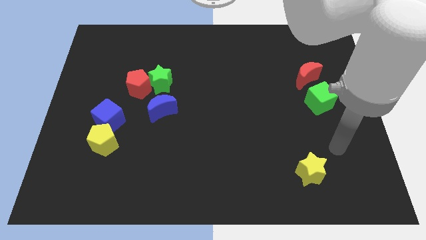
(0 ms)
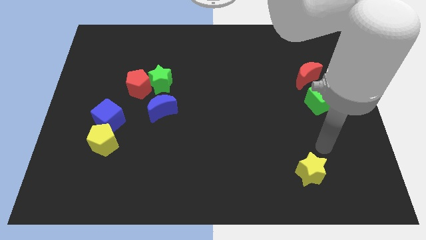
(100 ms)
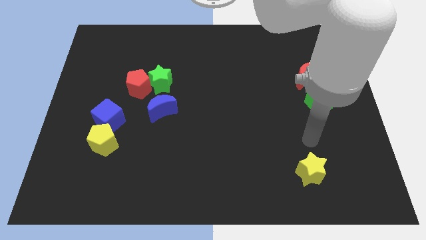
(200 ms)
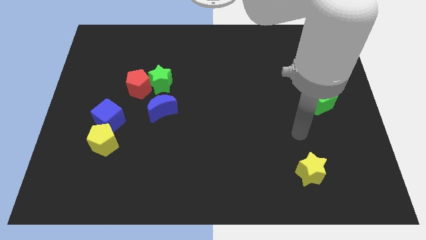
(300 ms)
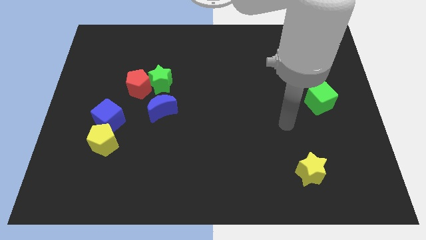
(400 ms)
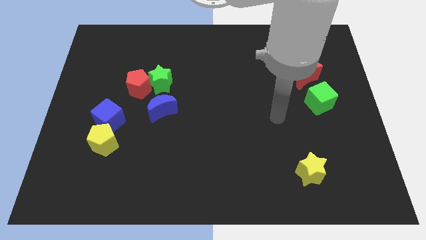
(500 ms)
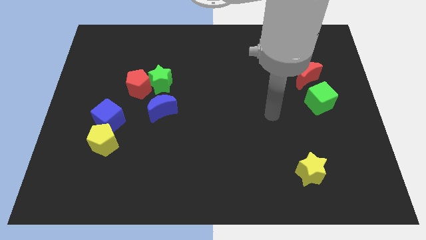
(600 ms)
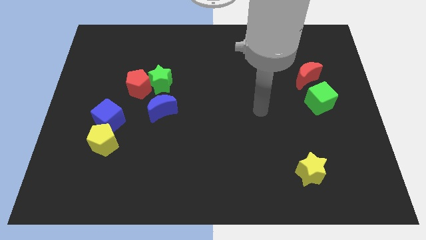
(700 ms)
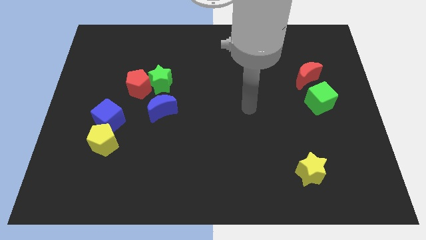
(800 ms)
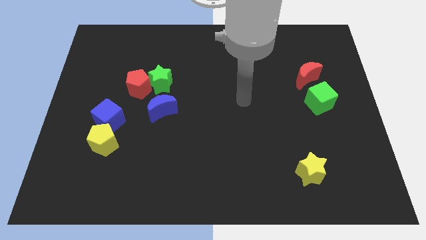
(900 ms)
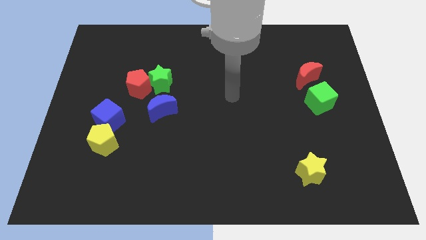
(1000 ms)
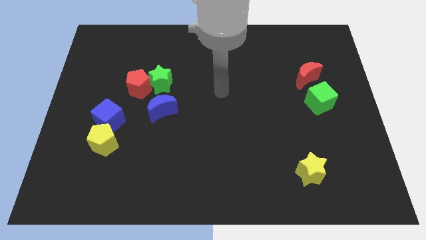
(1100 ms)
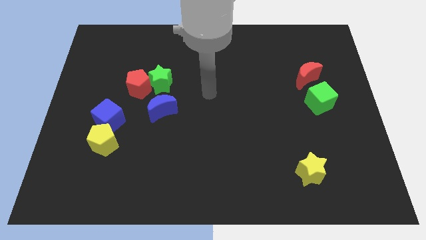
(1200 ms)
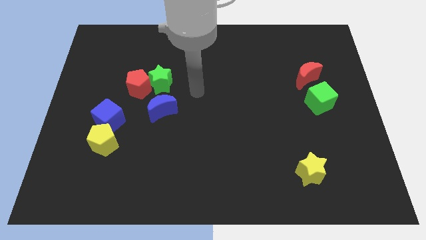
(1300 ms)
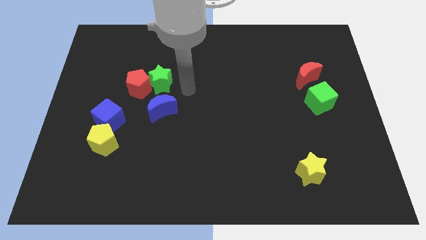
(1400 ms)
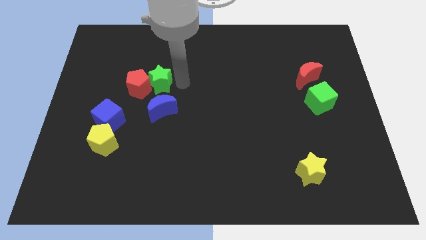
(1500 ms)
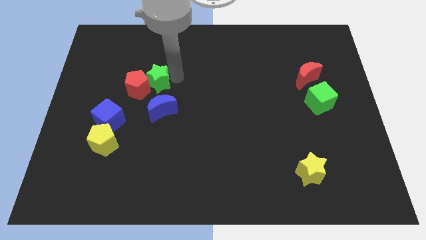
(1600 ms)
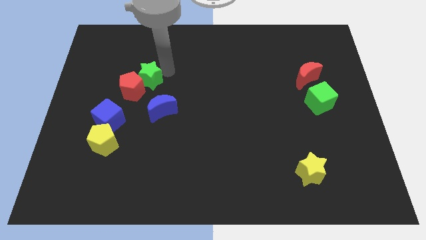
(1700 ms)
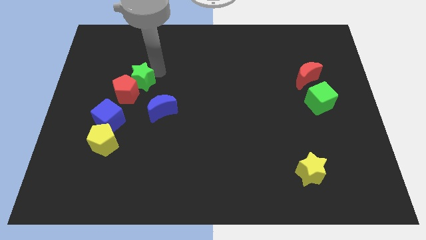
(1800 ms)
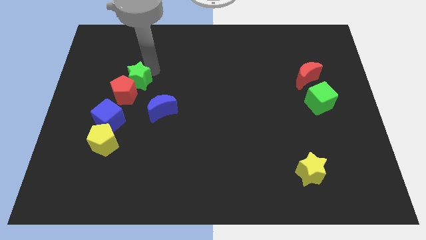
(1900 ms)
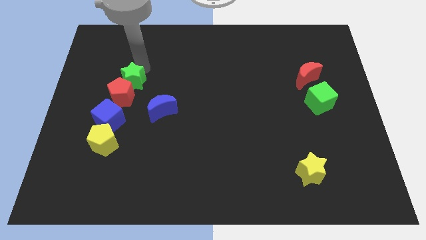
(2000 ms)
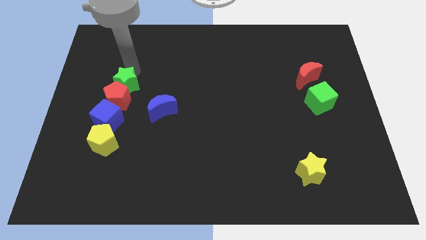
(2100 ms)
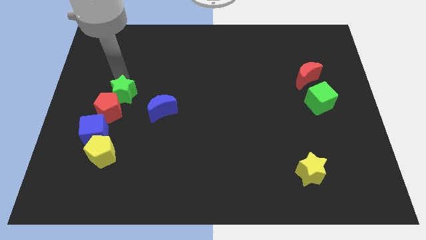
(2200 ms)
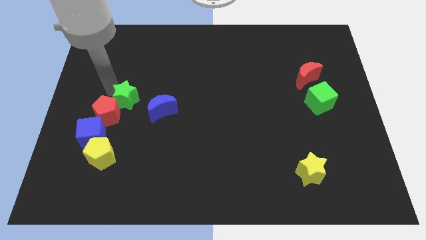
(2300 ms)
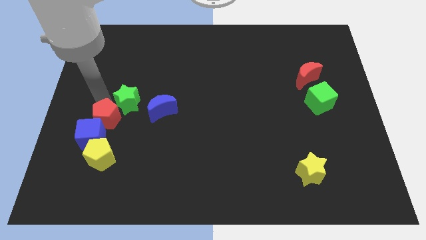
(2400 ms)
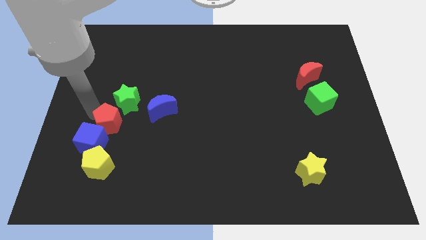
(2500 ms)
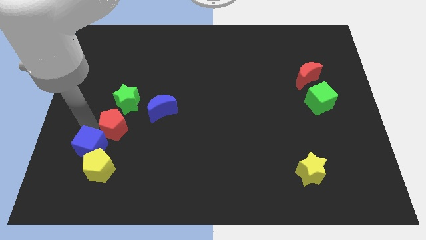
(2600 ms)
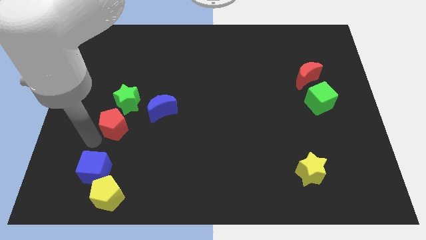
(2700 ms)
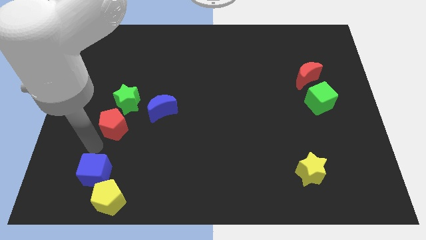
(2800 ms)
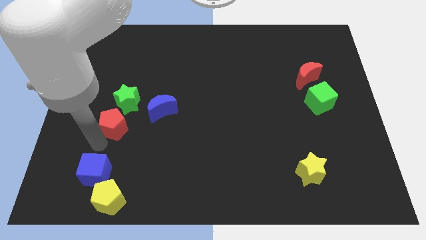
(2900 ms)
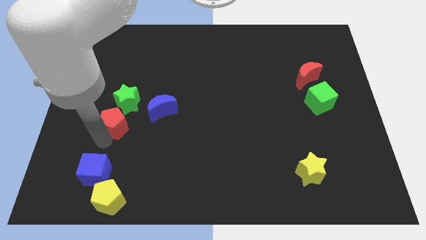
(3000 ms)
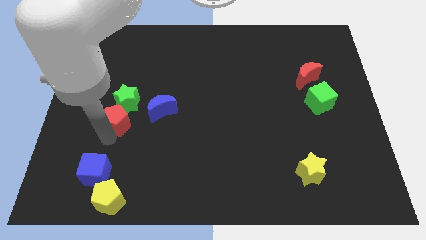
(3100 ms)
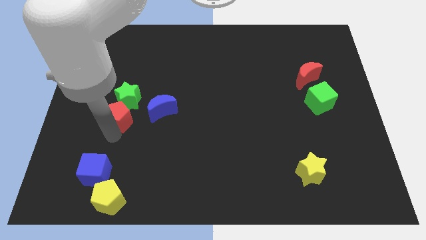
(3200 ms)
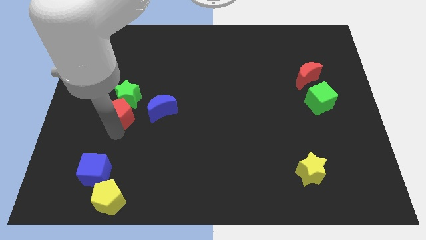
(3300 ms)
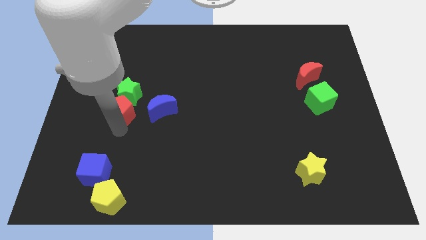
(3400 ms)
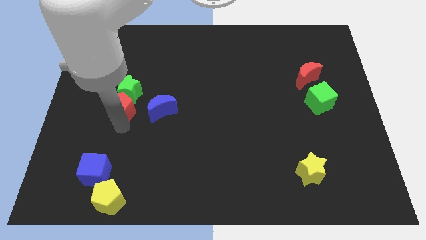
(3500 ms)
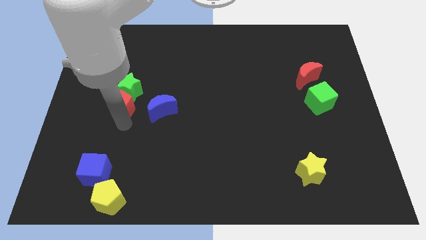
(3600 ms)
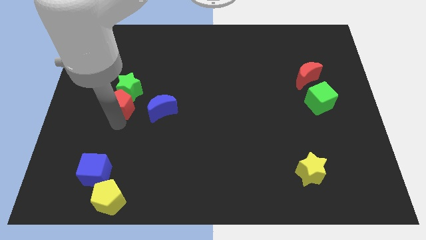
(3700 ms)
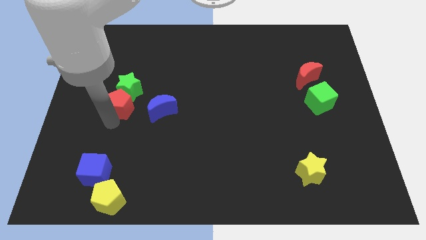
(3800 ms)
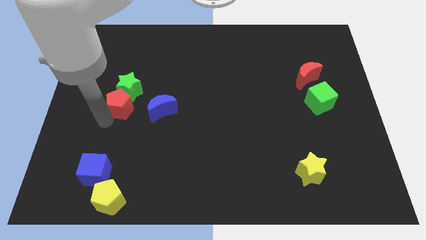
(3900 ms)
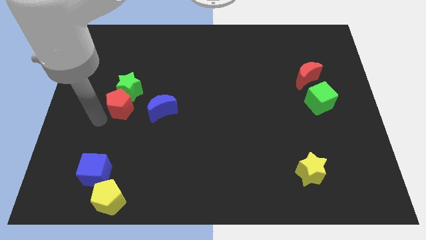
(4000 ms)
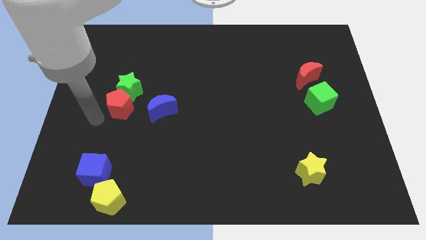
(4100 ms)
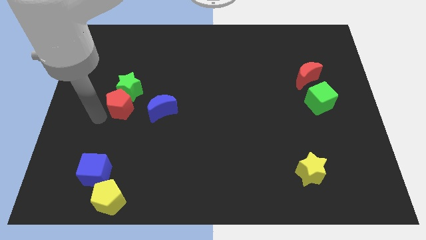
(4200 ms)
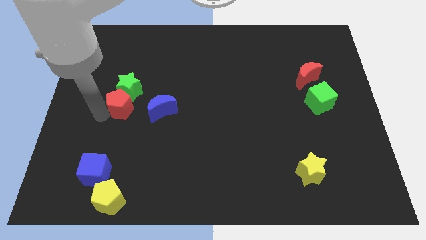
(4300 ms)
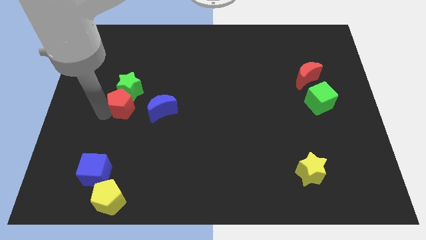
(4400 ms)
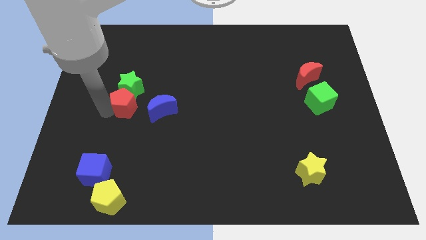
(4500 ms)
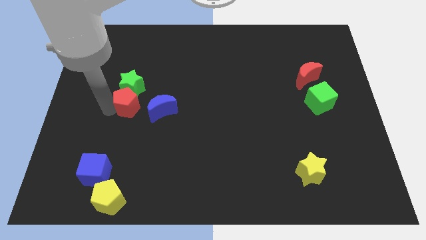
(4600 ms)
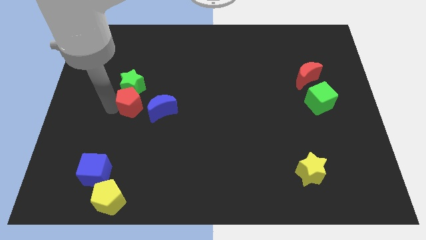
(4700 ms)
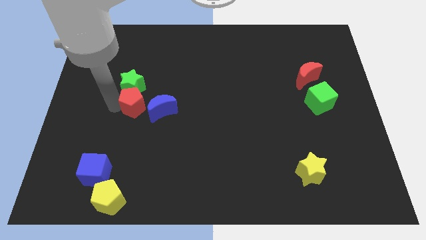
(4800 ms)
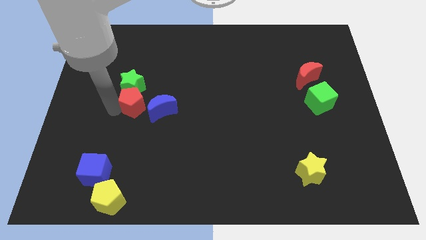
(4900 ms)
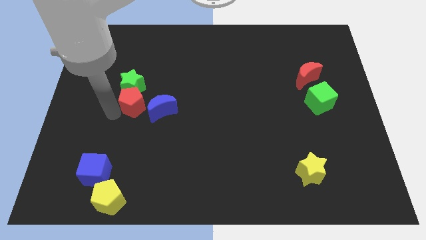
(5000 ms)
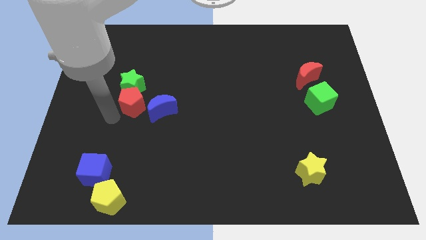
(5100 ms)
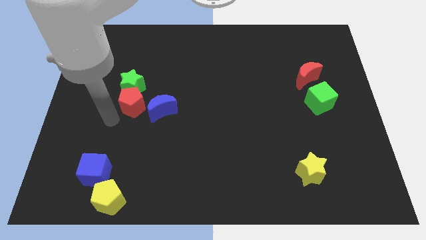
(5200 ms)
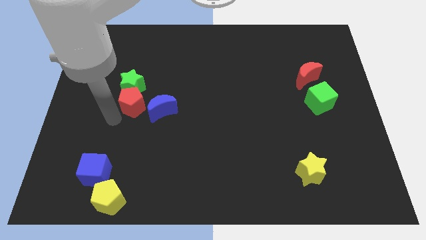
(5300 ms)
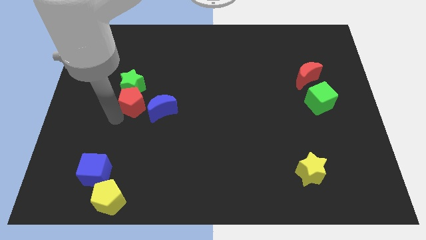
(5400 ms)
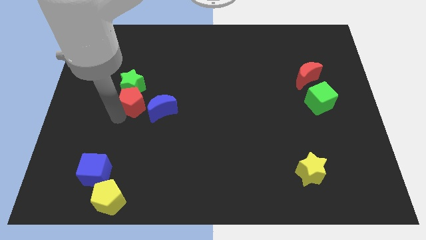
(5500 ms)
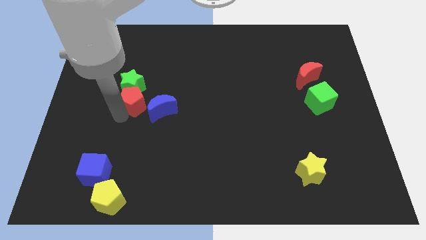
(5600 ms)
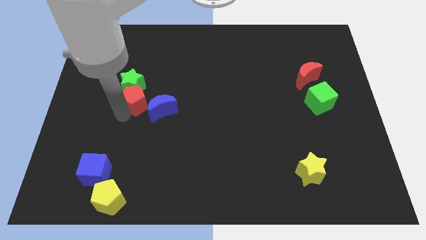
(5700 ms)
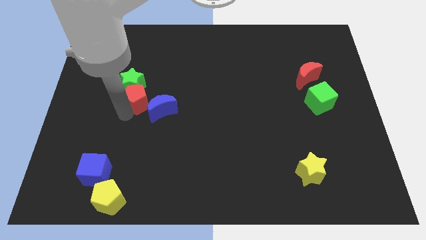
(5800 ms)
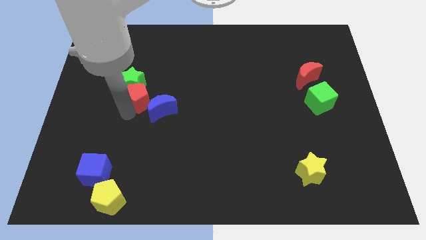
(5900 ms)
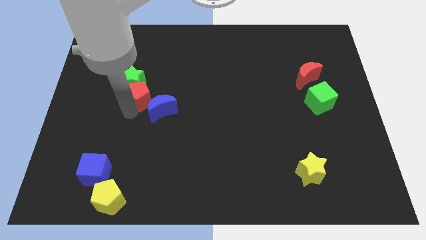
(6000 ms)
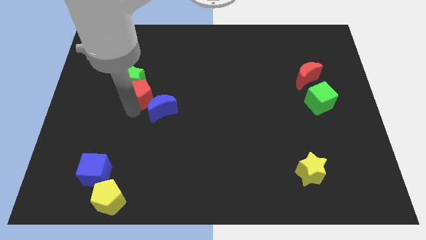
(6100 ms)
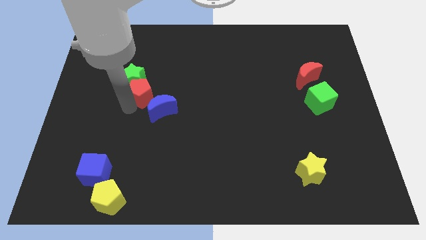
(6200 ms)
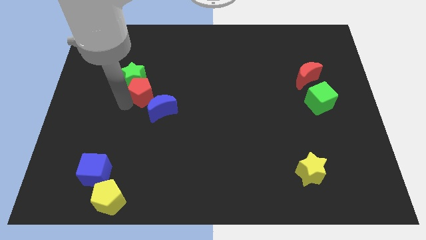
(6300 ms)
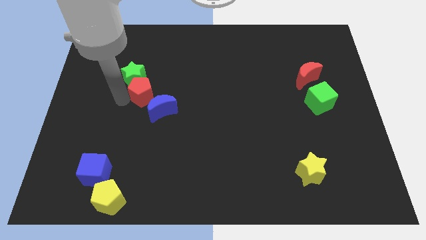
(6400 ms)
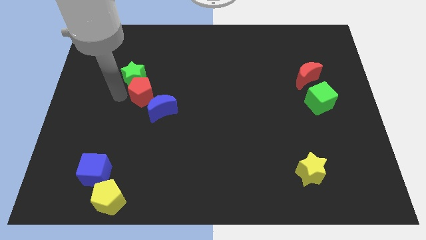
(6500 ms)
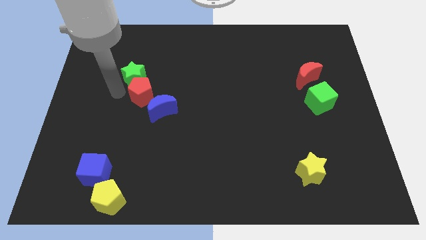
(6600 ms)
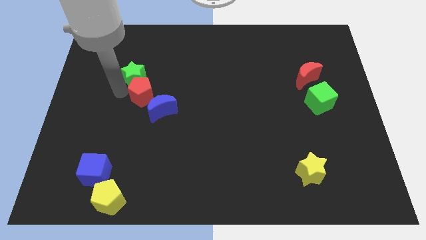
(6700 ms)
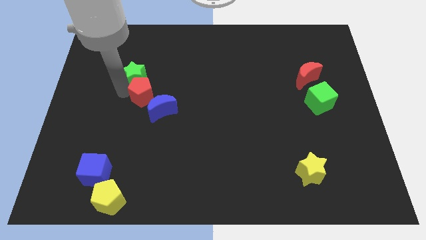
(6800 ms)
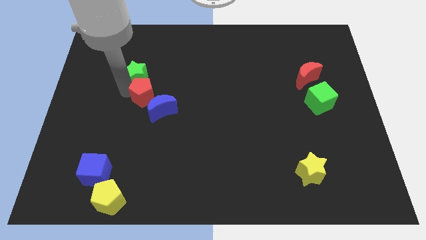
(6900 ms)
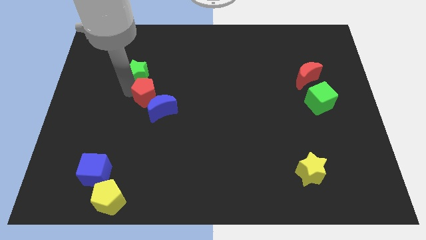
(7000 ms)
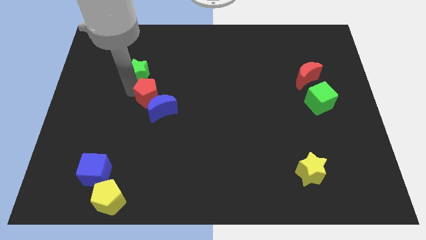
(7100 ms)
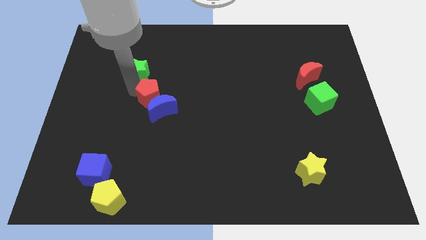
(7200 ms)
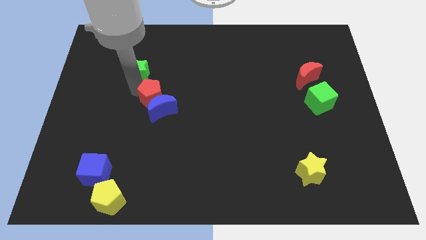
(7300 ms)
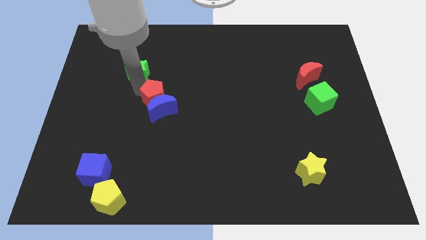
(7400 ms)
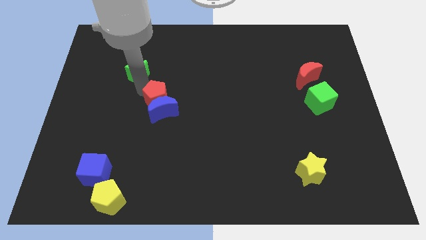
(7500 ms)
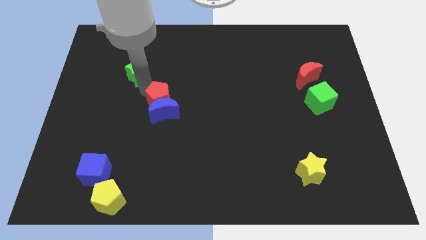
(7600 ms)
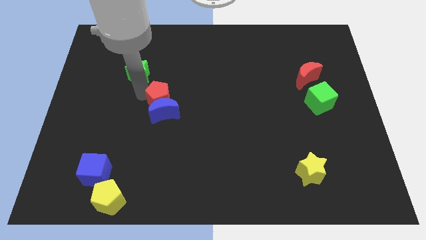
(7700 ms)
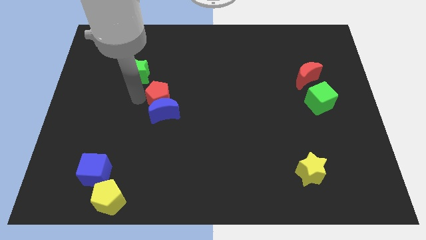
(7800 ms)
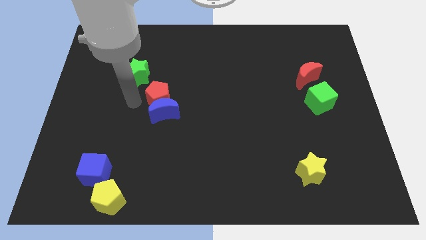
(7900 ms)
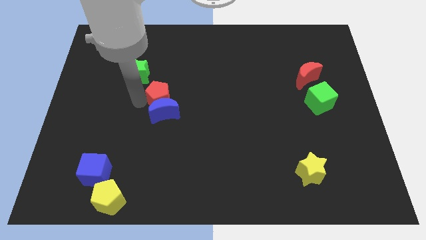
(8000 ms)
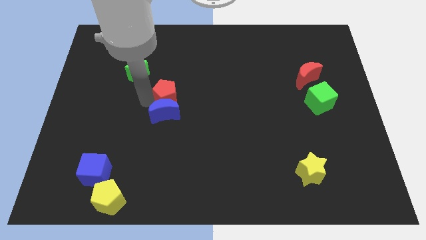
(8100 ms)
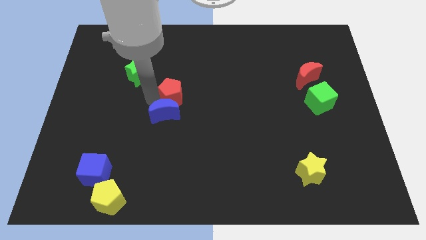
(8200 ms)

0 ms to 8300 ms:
slightly slide the red pentagon right
